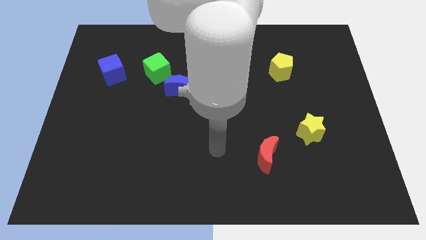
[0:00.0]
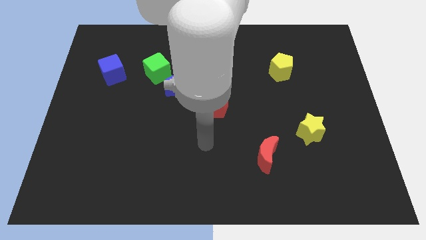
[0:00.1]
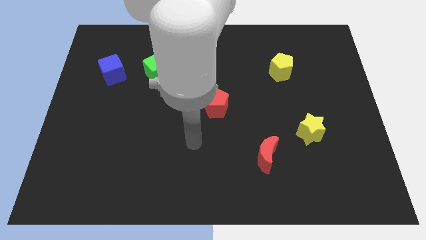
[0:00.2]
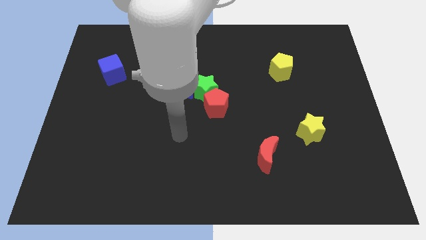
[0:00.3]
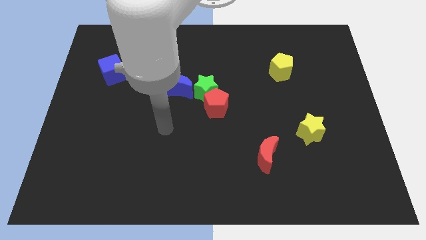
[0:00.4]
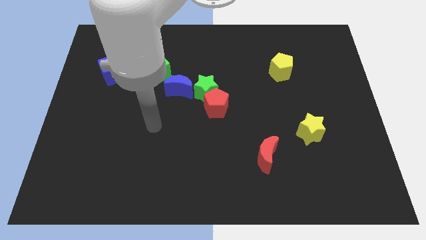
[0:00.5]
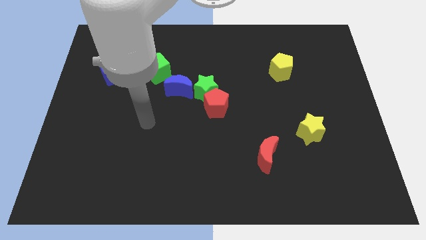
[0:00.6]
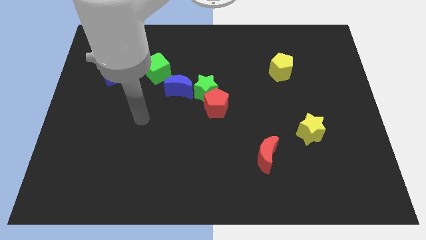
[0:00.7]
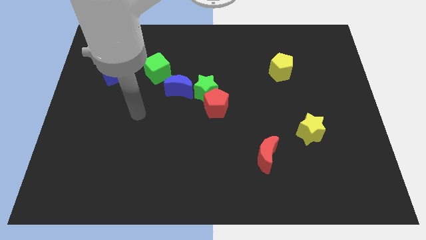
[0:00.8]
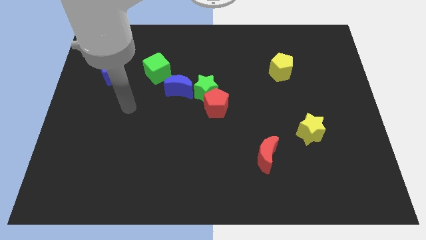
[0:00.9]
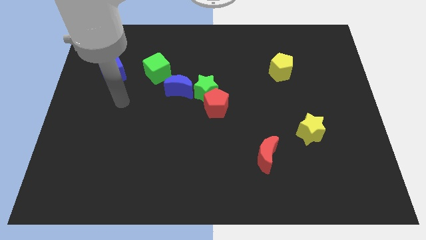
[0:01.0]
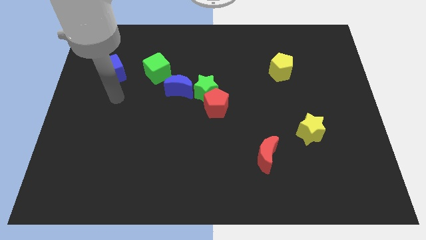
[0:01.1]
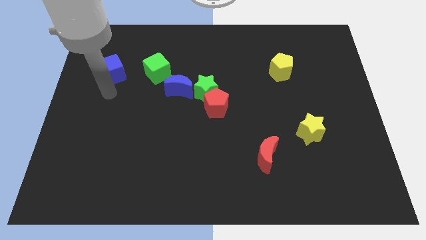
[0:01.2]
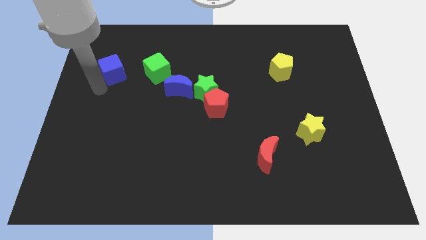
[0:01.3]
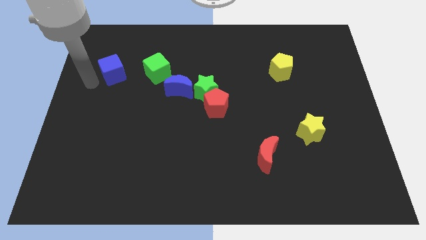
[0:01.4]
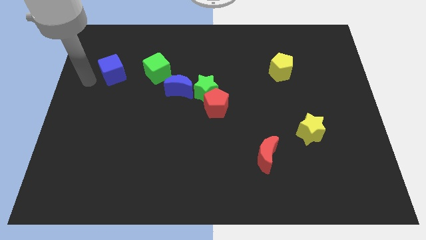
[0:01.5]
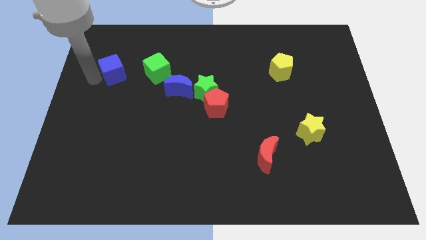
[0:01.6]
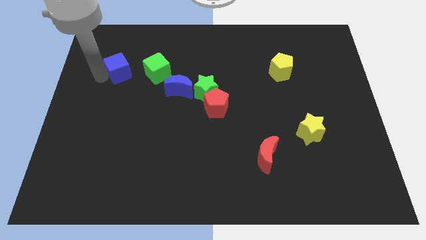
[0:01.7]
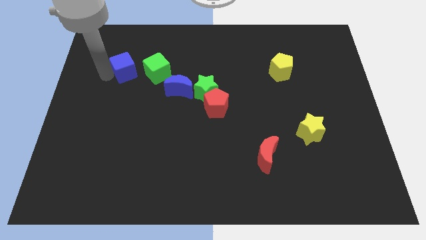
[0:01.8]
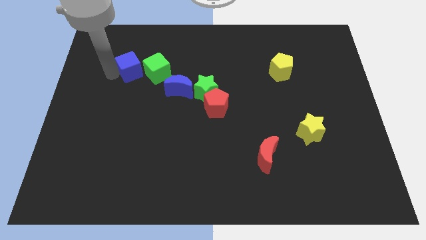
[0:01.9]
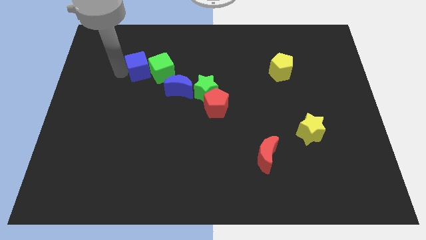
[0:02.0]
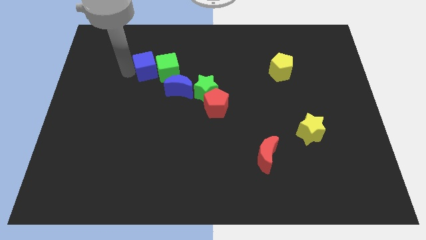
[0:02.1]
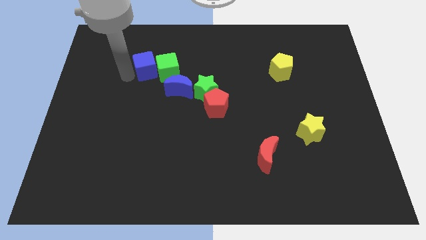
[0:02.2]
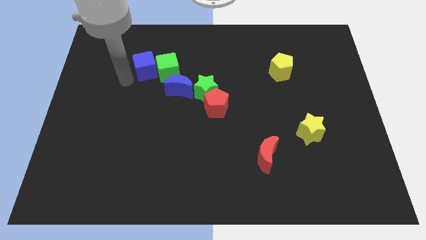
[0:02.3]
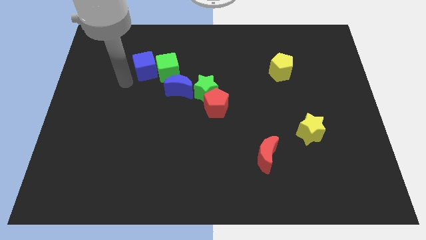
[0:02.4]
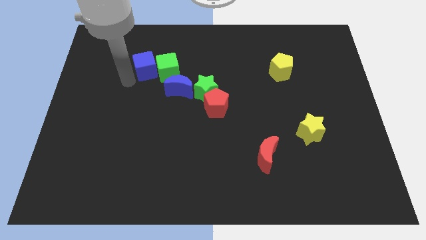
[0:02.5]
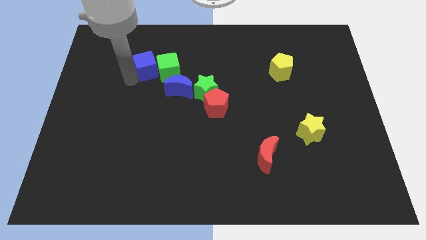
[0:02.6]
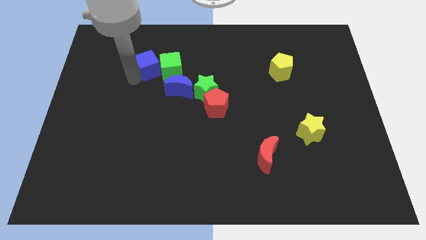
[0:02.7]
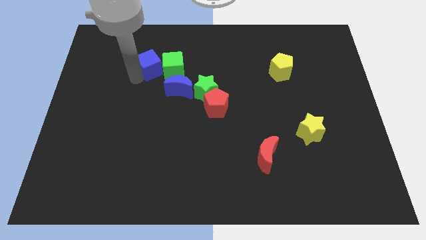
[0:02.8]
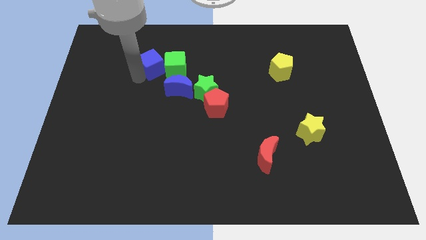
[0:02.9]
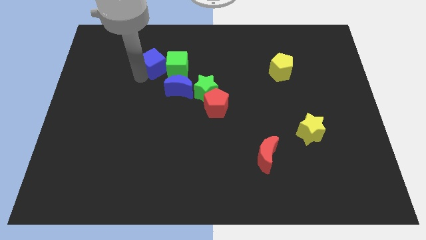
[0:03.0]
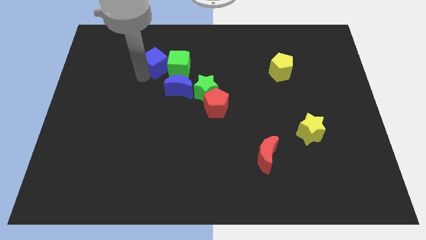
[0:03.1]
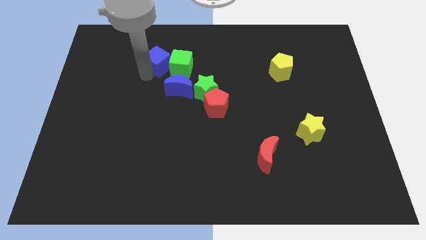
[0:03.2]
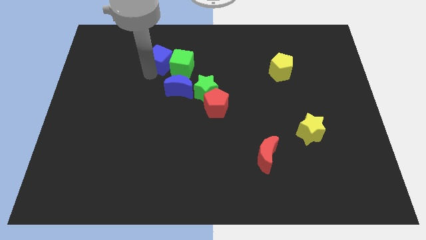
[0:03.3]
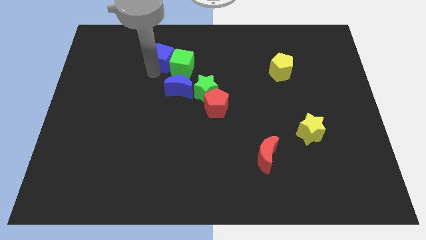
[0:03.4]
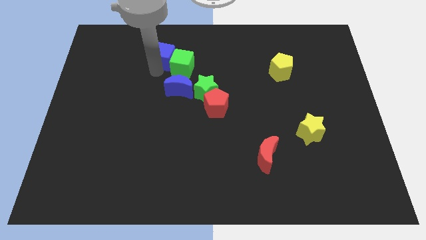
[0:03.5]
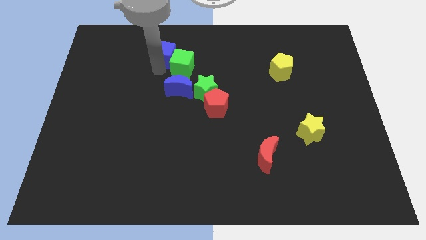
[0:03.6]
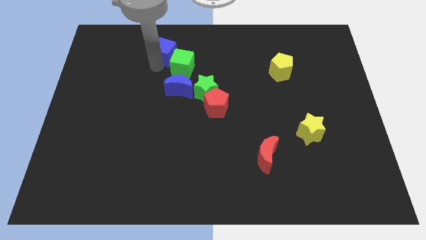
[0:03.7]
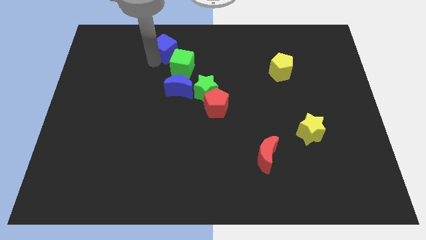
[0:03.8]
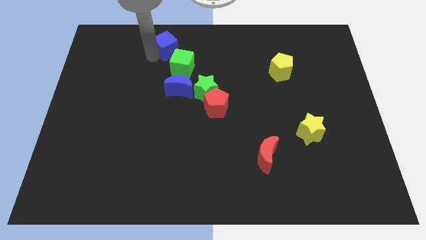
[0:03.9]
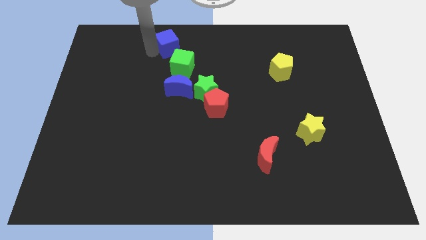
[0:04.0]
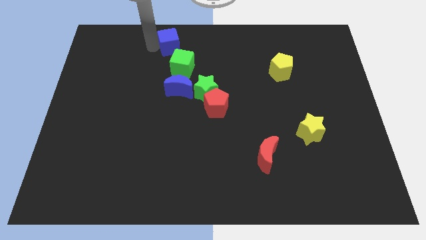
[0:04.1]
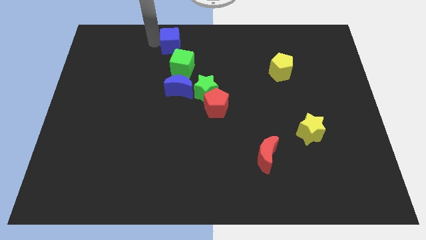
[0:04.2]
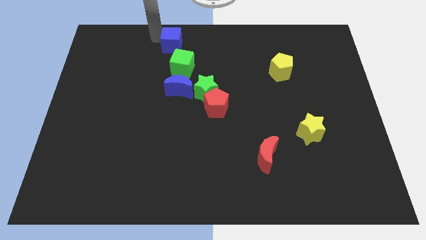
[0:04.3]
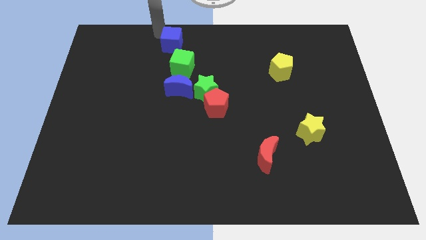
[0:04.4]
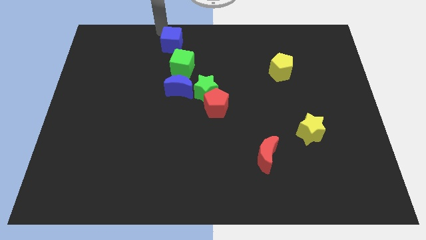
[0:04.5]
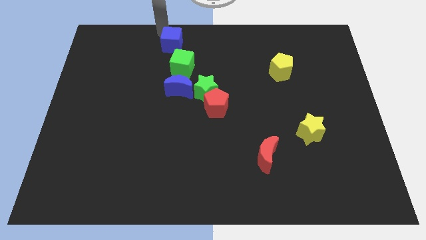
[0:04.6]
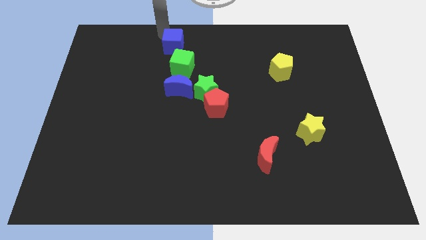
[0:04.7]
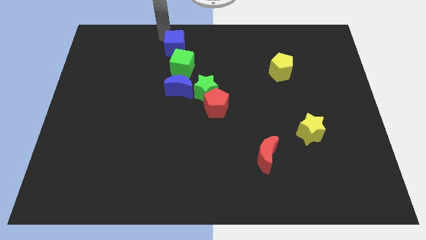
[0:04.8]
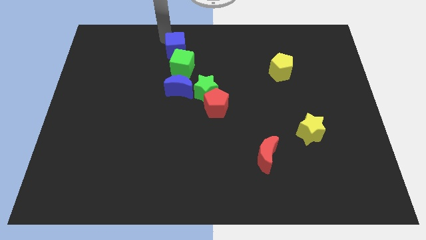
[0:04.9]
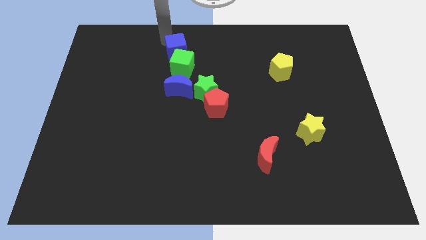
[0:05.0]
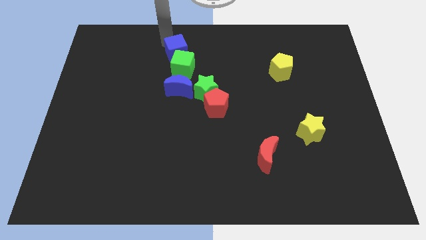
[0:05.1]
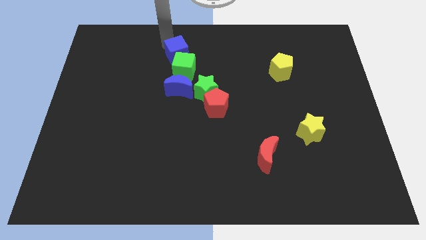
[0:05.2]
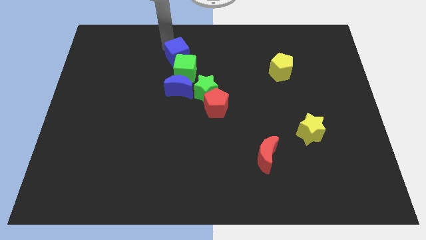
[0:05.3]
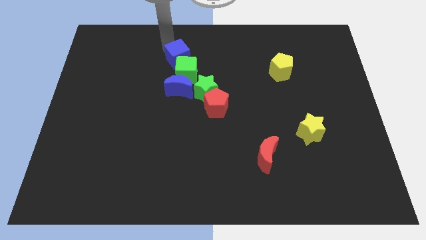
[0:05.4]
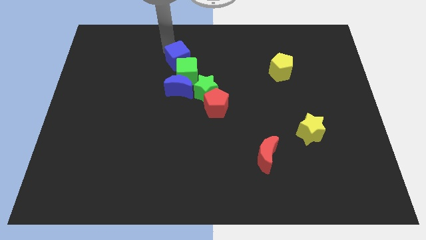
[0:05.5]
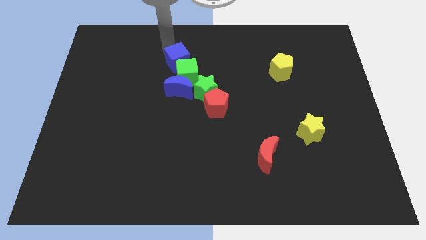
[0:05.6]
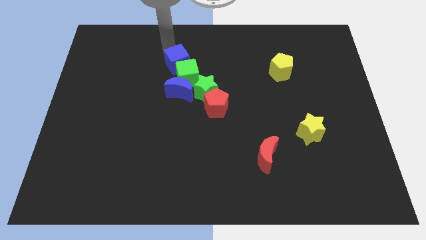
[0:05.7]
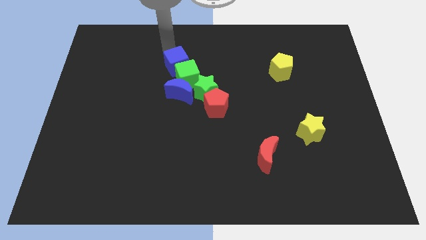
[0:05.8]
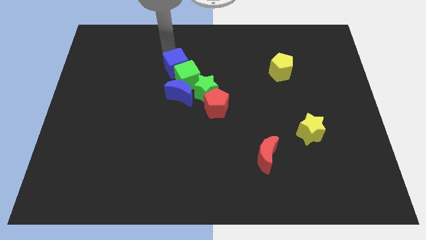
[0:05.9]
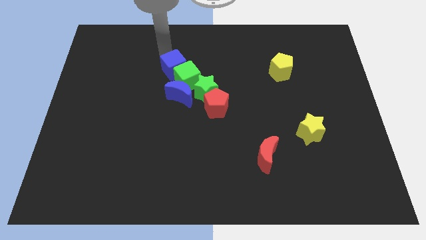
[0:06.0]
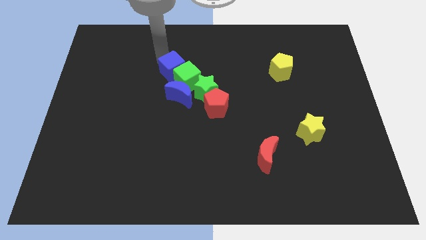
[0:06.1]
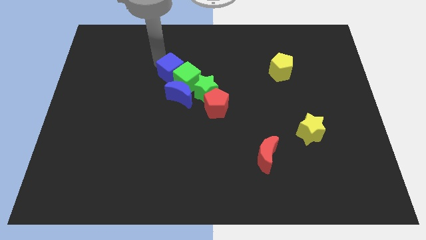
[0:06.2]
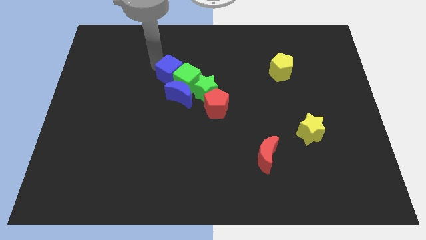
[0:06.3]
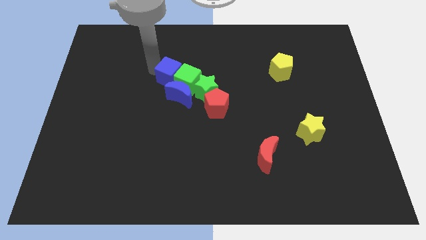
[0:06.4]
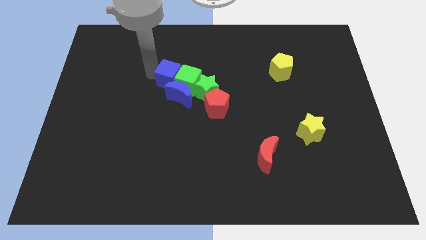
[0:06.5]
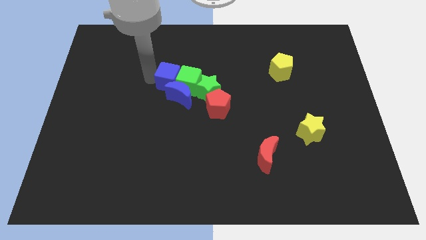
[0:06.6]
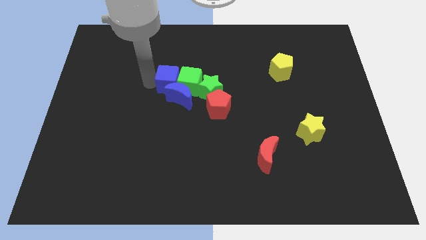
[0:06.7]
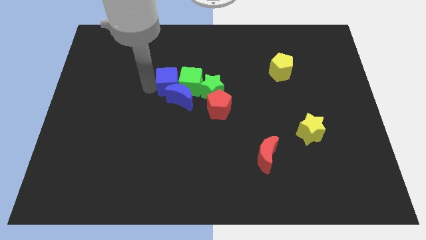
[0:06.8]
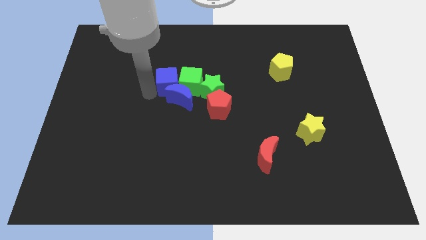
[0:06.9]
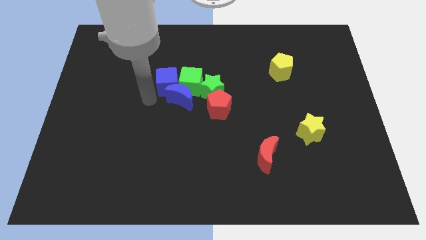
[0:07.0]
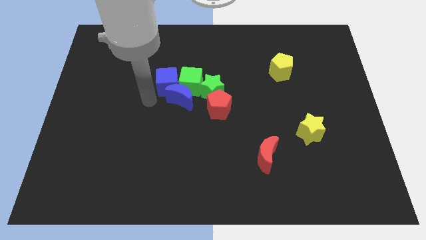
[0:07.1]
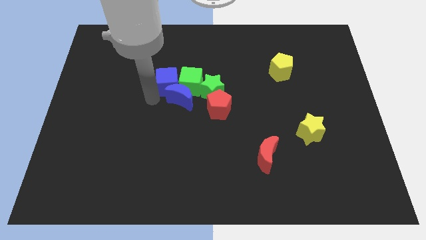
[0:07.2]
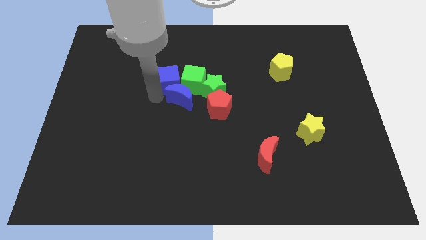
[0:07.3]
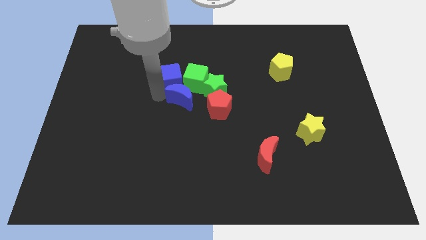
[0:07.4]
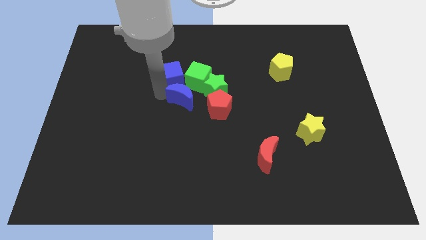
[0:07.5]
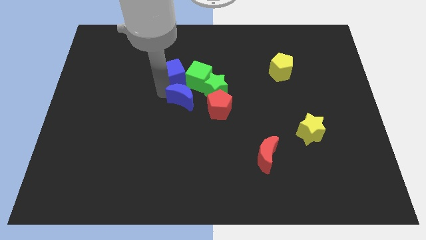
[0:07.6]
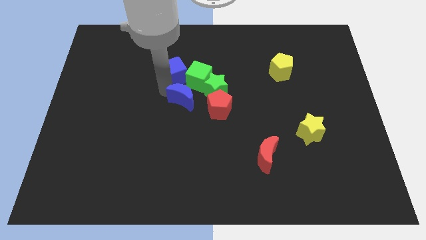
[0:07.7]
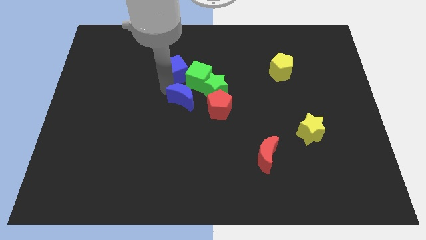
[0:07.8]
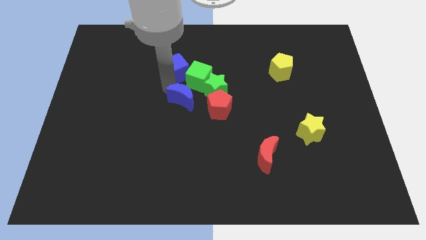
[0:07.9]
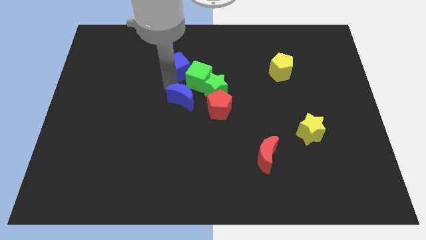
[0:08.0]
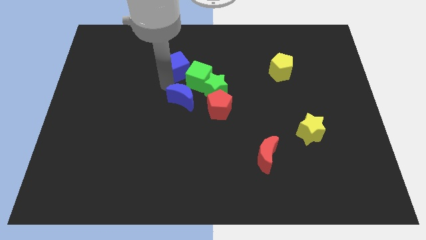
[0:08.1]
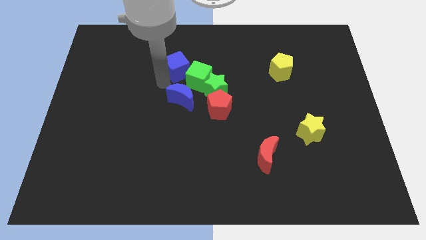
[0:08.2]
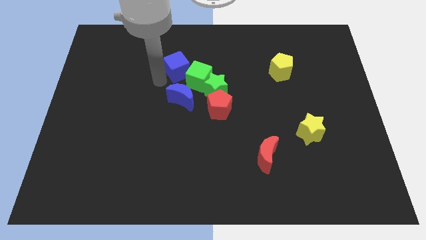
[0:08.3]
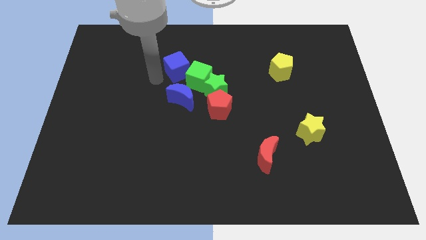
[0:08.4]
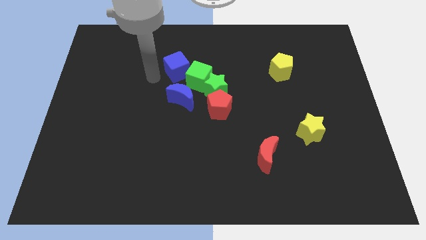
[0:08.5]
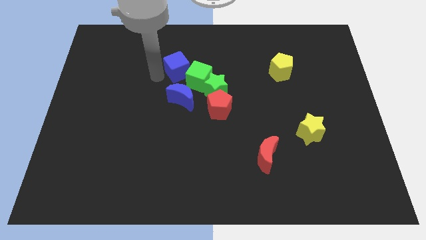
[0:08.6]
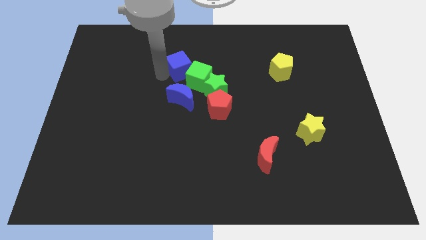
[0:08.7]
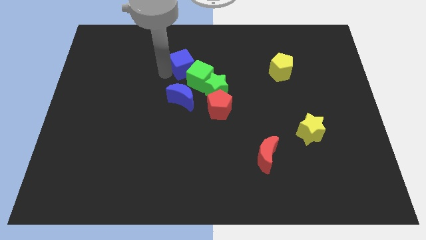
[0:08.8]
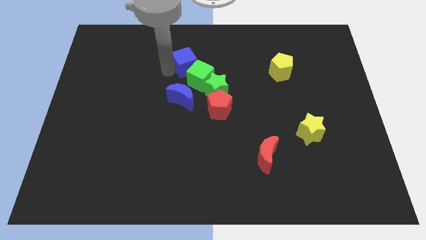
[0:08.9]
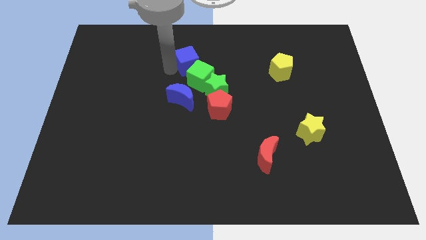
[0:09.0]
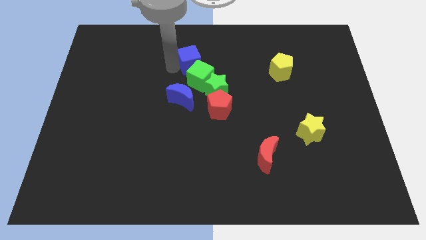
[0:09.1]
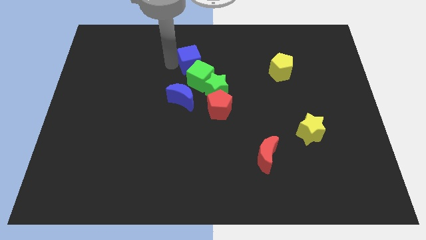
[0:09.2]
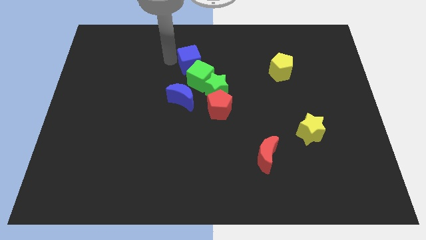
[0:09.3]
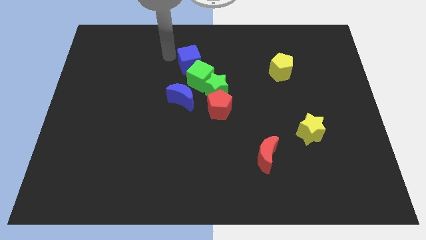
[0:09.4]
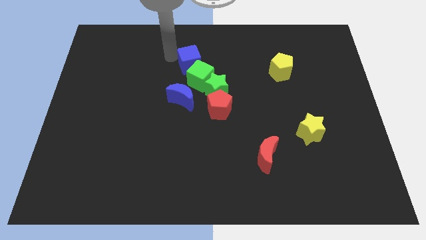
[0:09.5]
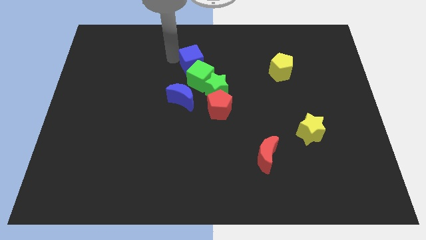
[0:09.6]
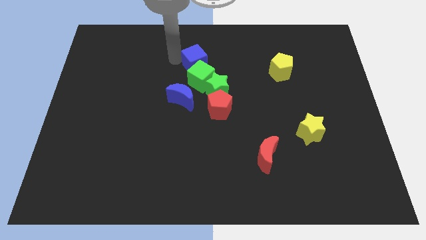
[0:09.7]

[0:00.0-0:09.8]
move the blue cube to the right
